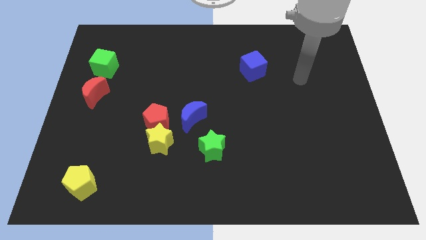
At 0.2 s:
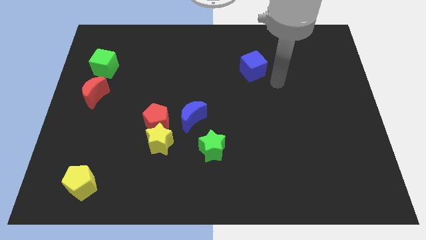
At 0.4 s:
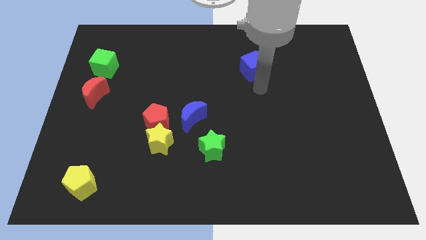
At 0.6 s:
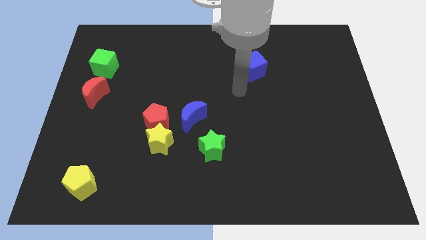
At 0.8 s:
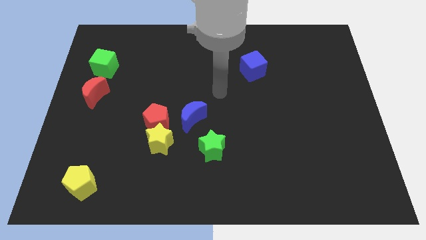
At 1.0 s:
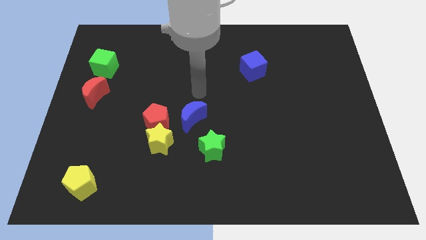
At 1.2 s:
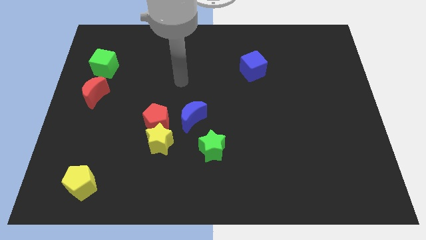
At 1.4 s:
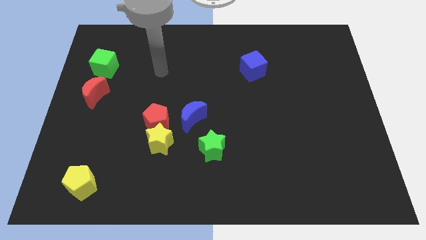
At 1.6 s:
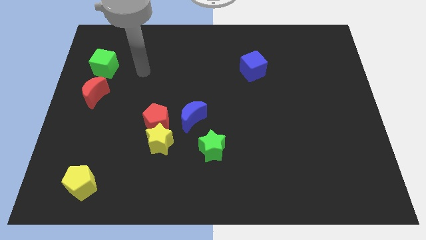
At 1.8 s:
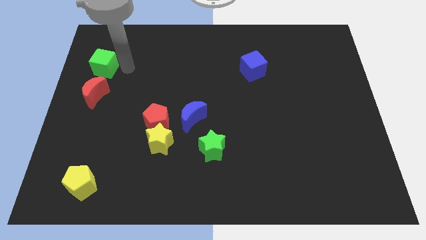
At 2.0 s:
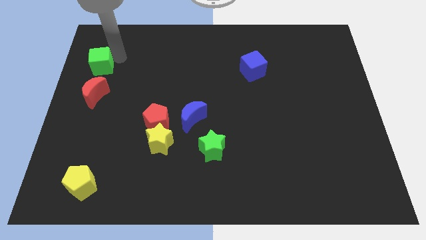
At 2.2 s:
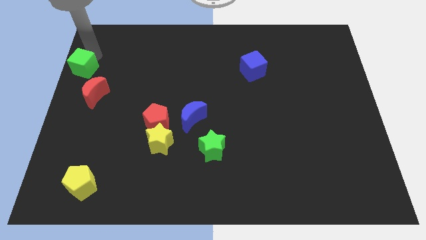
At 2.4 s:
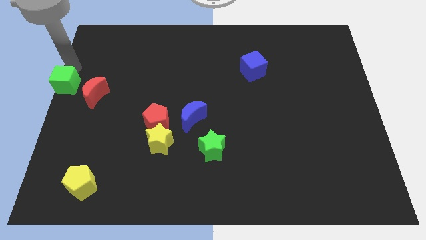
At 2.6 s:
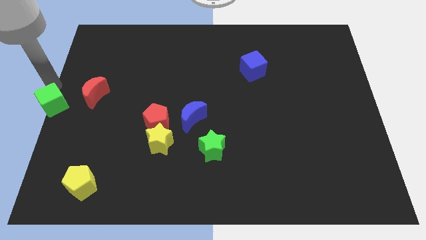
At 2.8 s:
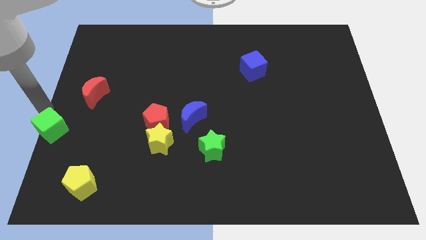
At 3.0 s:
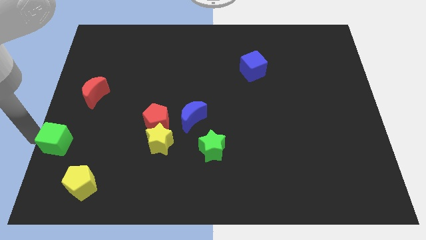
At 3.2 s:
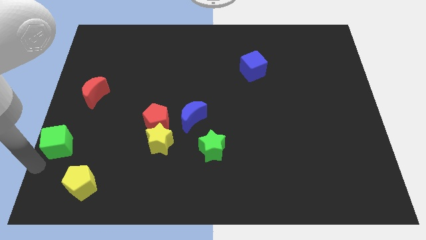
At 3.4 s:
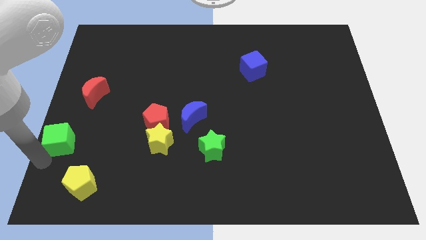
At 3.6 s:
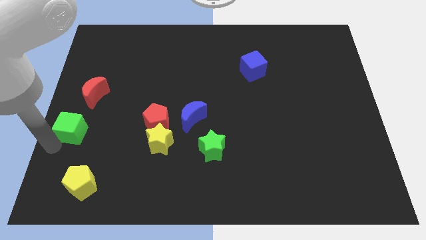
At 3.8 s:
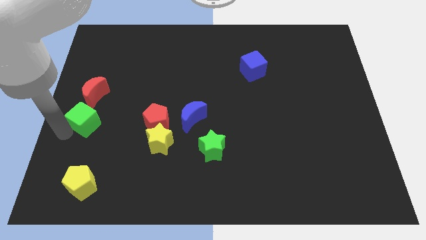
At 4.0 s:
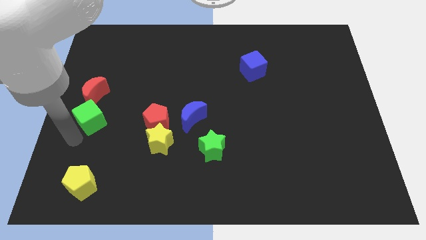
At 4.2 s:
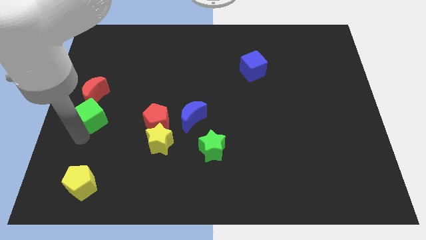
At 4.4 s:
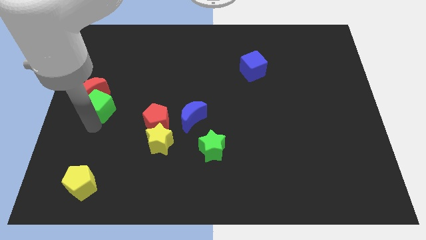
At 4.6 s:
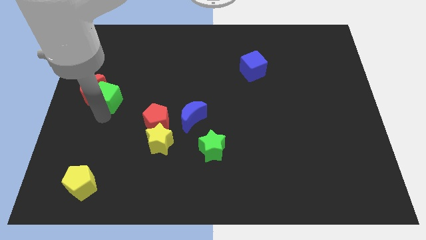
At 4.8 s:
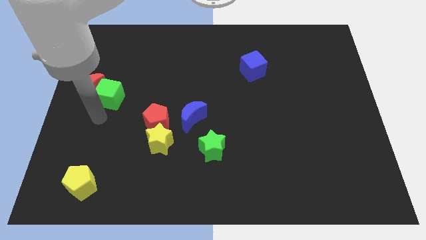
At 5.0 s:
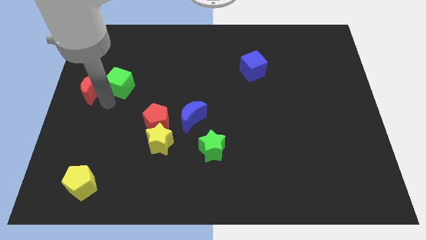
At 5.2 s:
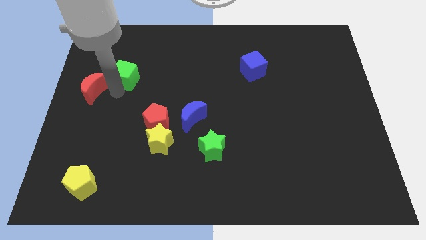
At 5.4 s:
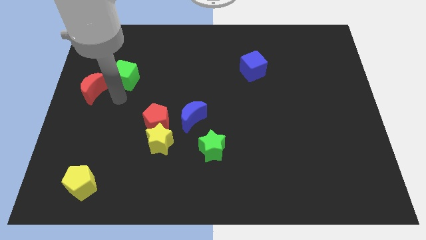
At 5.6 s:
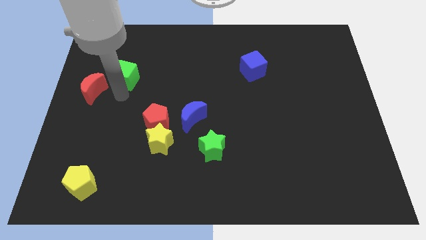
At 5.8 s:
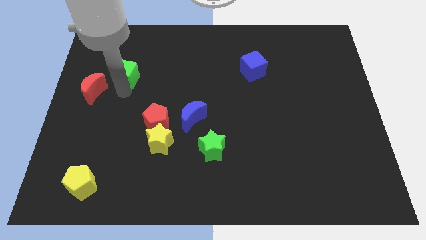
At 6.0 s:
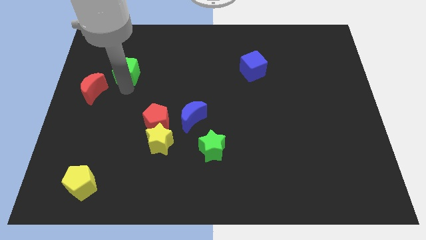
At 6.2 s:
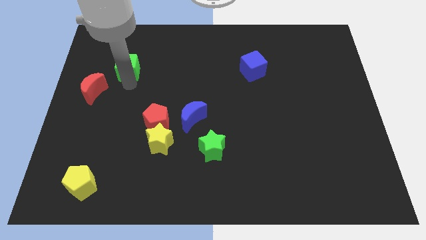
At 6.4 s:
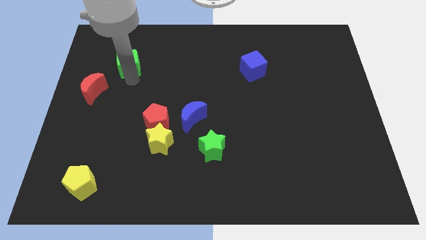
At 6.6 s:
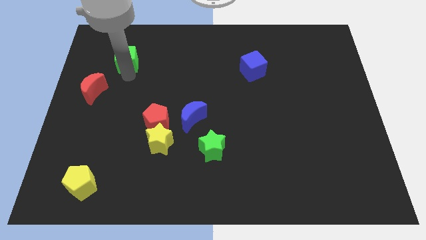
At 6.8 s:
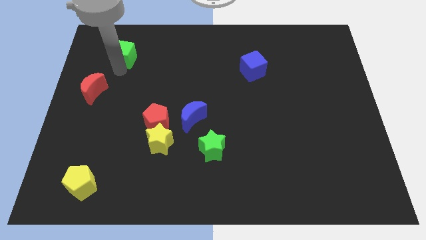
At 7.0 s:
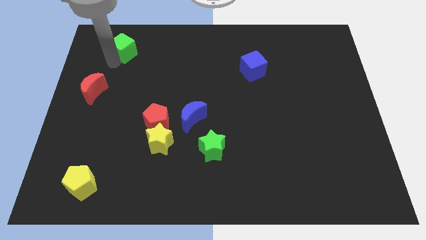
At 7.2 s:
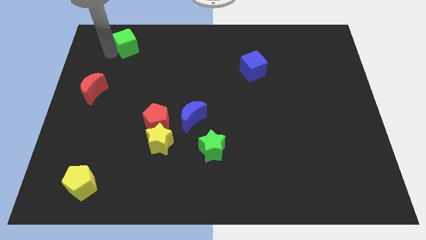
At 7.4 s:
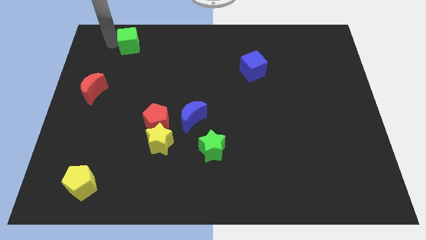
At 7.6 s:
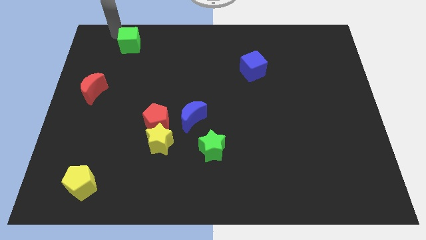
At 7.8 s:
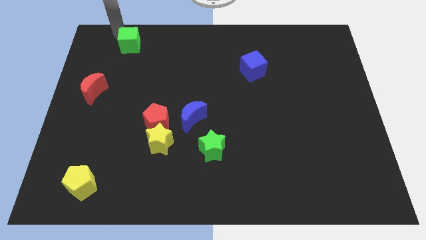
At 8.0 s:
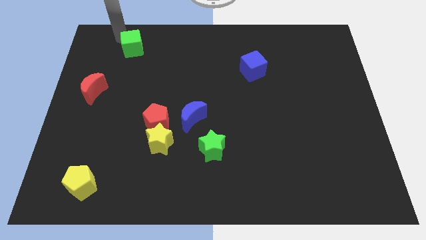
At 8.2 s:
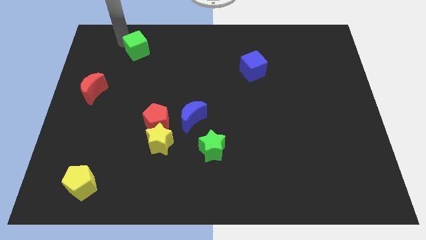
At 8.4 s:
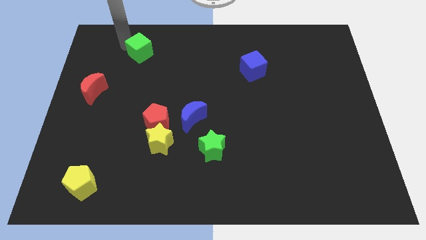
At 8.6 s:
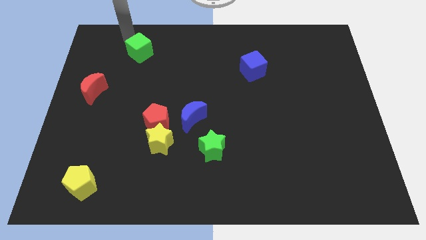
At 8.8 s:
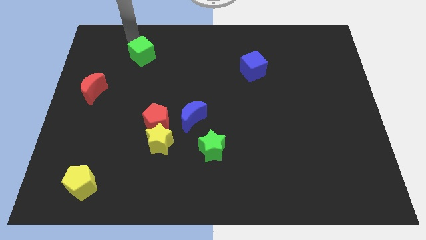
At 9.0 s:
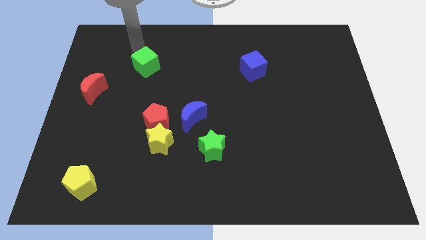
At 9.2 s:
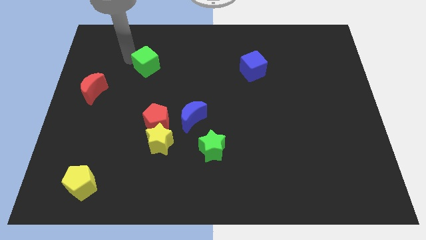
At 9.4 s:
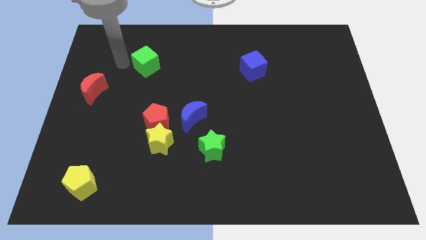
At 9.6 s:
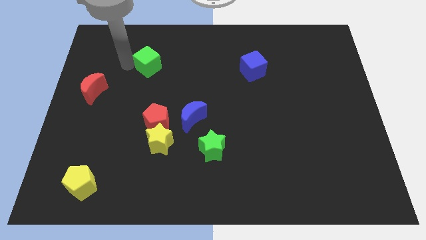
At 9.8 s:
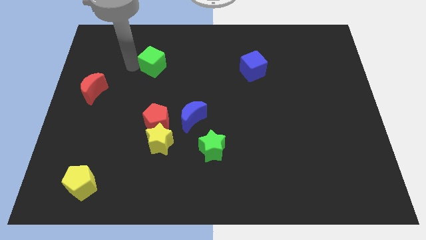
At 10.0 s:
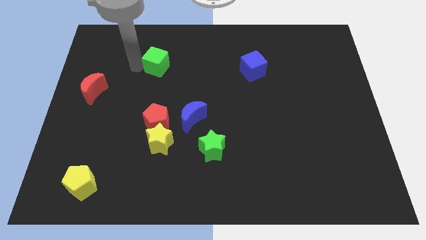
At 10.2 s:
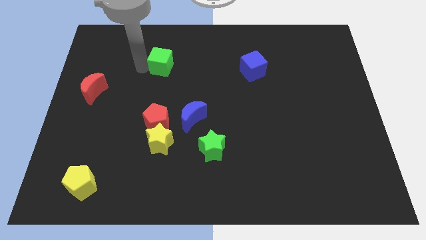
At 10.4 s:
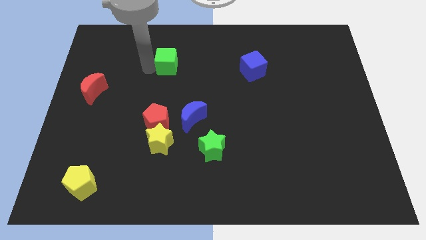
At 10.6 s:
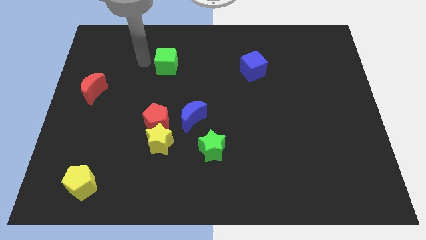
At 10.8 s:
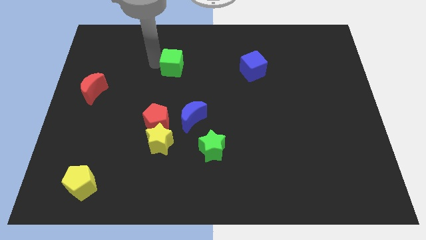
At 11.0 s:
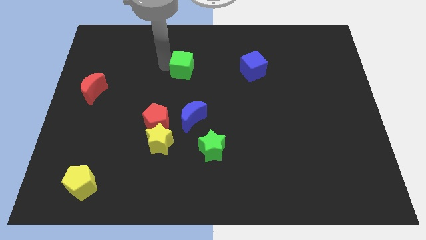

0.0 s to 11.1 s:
slide the green cube to the right

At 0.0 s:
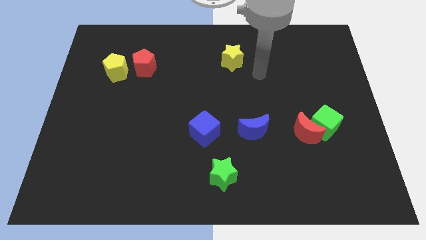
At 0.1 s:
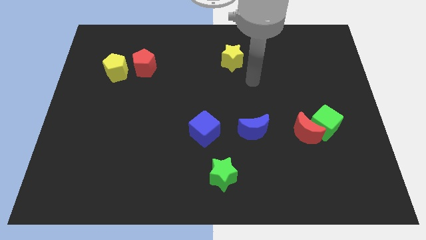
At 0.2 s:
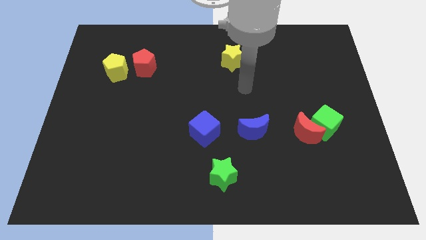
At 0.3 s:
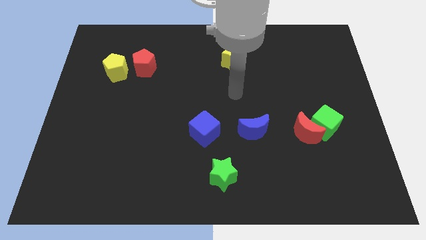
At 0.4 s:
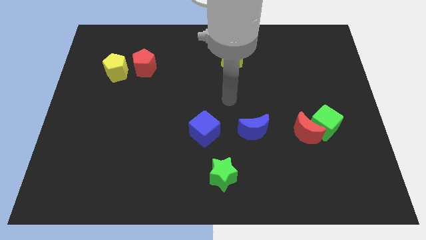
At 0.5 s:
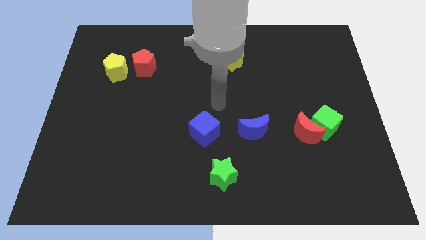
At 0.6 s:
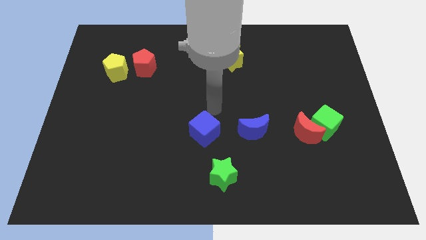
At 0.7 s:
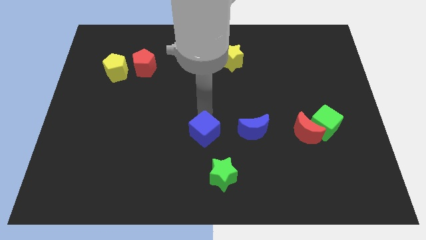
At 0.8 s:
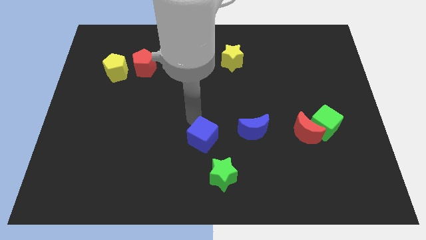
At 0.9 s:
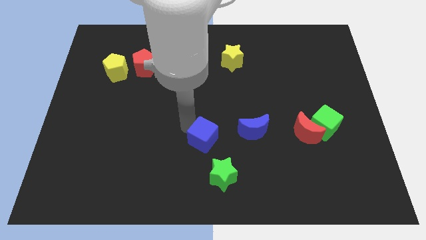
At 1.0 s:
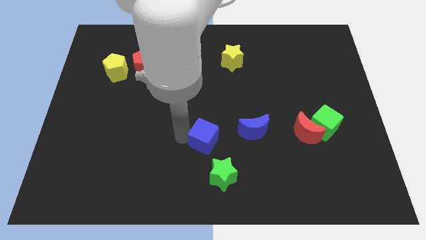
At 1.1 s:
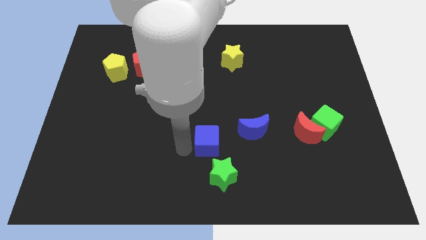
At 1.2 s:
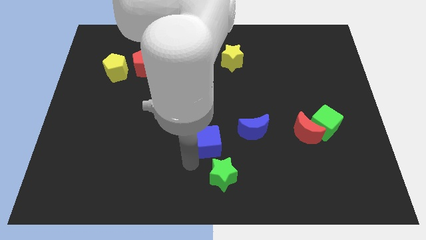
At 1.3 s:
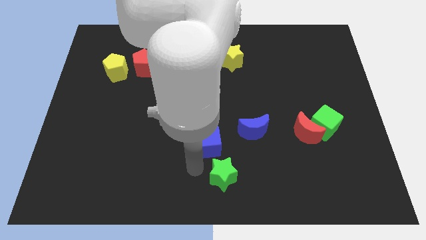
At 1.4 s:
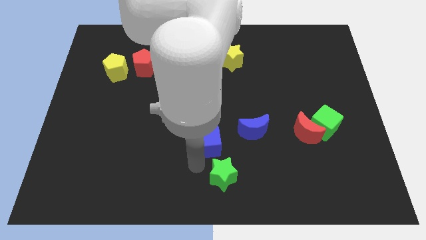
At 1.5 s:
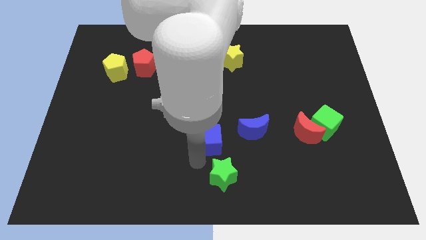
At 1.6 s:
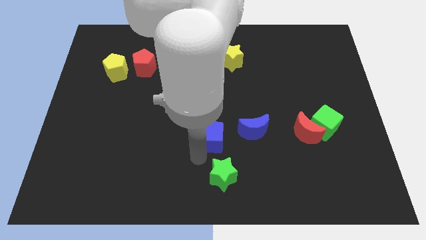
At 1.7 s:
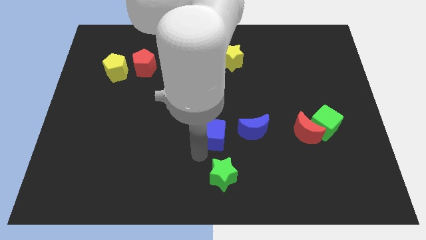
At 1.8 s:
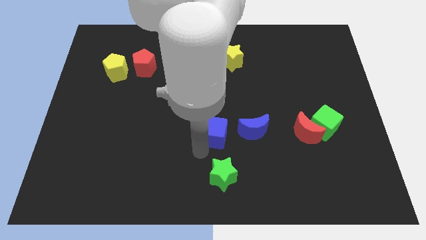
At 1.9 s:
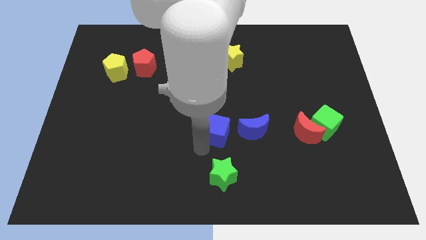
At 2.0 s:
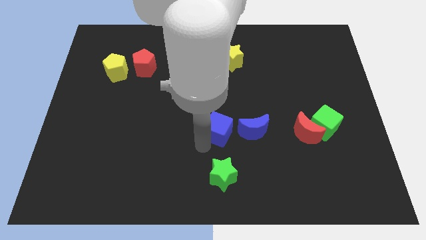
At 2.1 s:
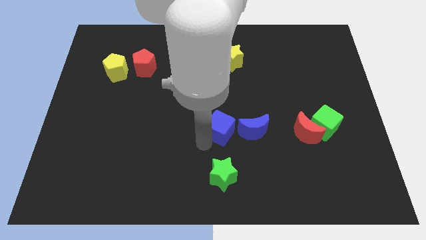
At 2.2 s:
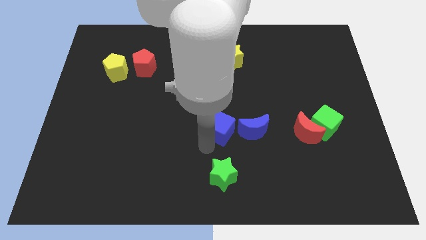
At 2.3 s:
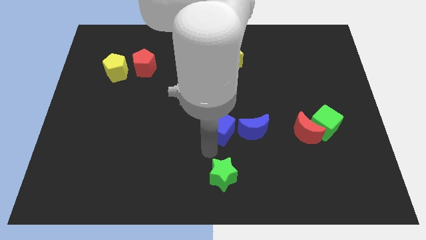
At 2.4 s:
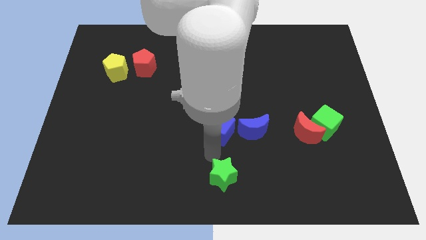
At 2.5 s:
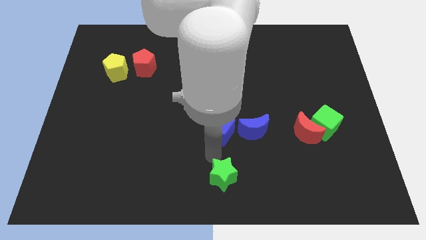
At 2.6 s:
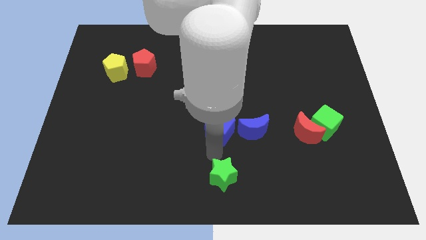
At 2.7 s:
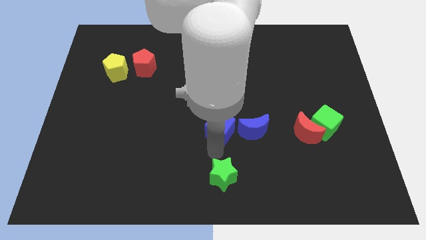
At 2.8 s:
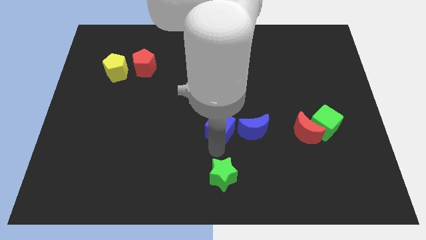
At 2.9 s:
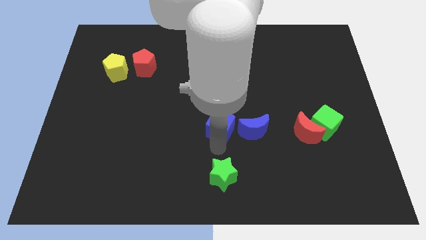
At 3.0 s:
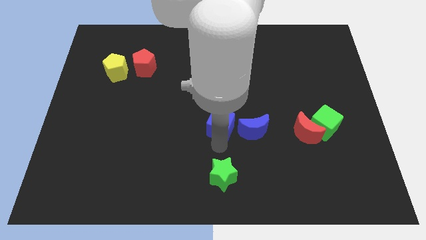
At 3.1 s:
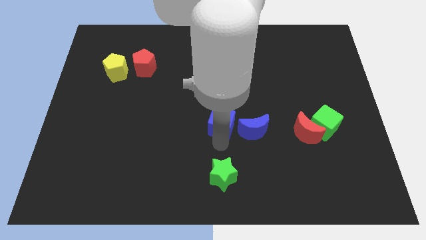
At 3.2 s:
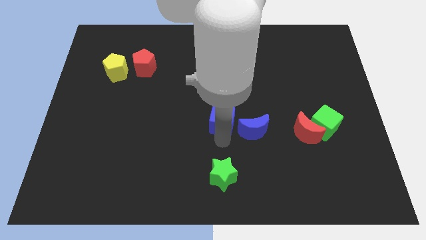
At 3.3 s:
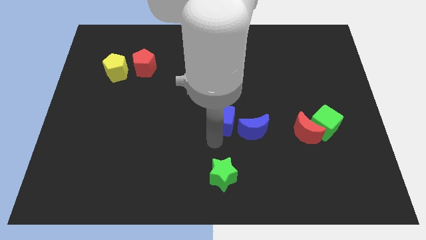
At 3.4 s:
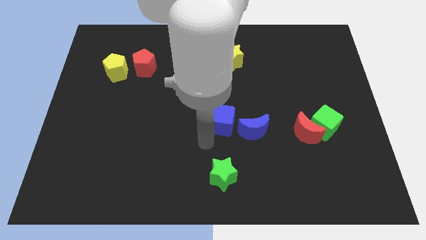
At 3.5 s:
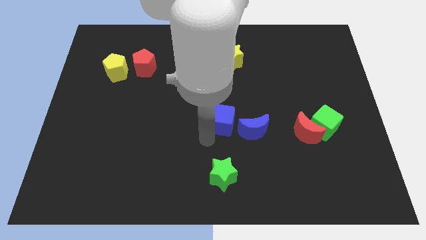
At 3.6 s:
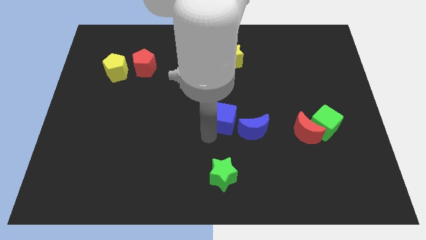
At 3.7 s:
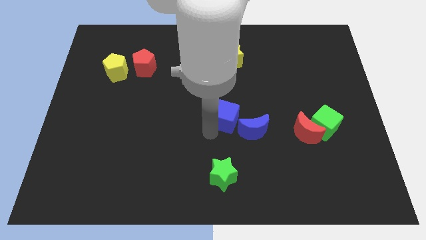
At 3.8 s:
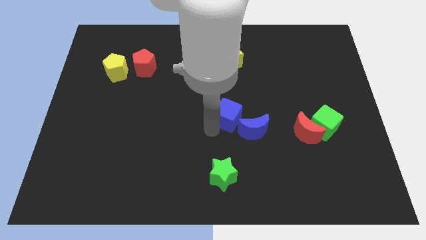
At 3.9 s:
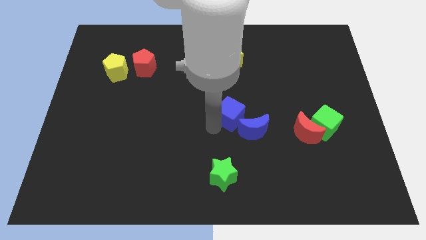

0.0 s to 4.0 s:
slightly slide the blue cube diagonally upwards and to the right
